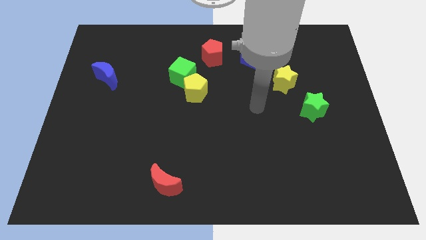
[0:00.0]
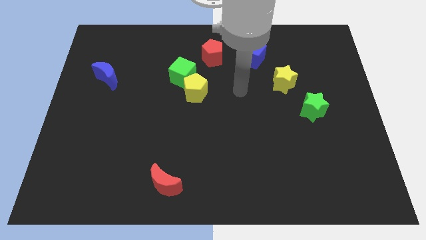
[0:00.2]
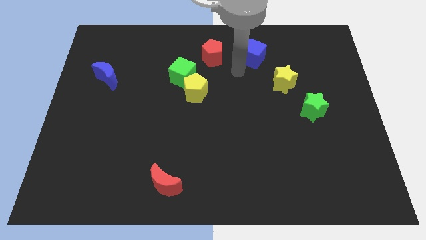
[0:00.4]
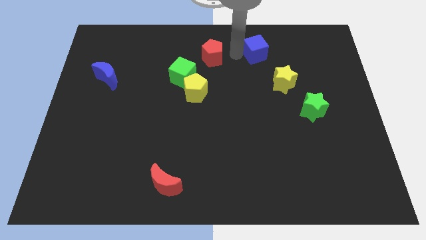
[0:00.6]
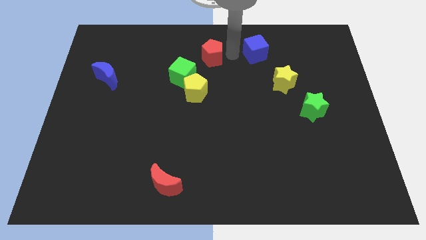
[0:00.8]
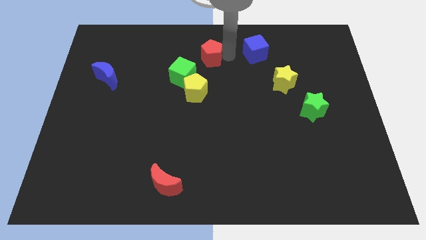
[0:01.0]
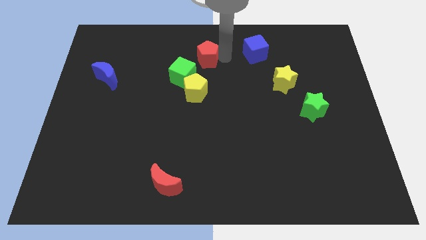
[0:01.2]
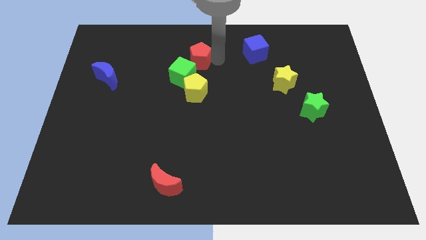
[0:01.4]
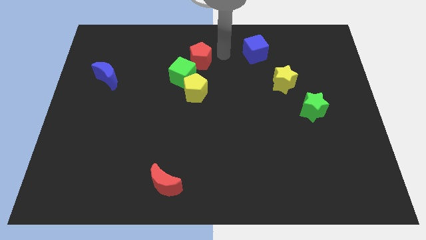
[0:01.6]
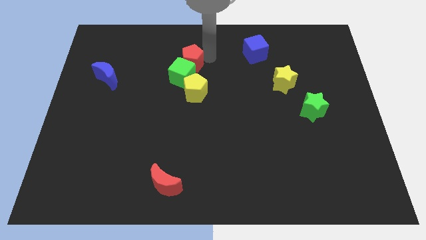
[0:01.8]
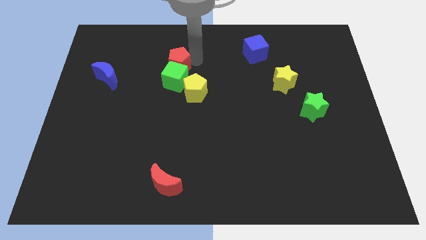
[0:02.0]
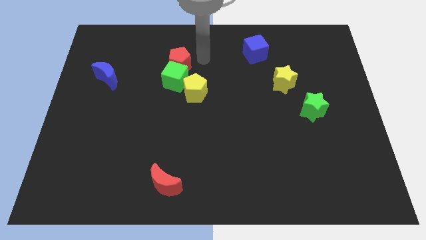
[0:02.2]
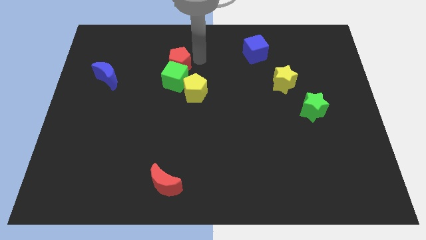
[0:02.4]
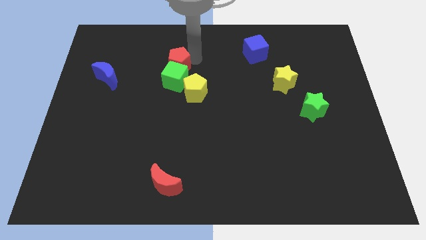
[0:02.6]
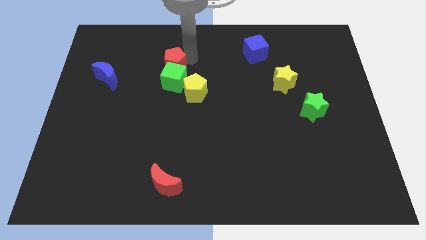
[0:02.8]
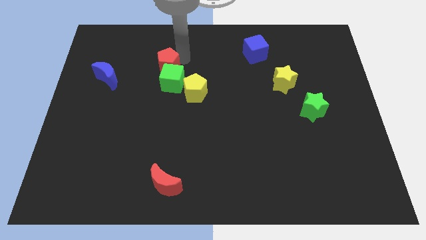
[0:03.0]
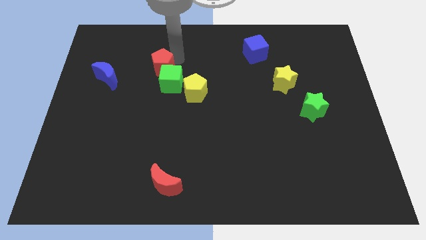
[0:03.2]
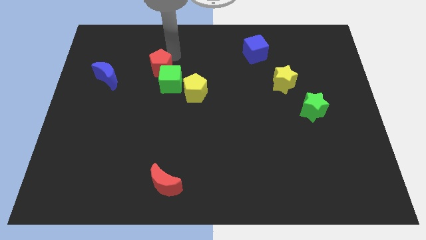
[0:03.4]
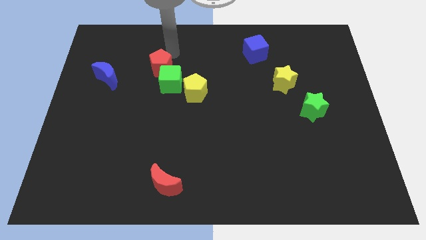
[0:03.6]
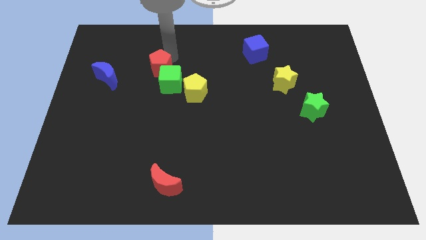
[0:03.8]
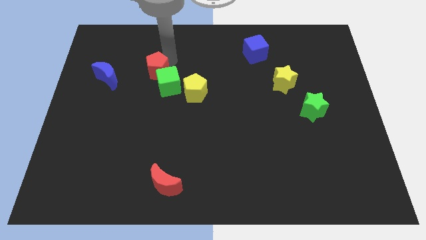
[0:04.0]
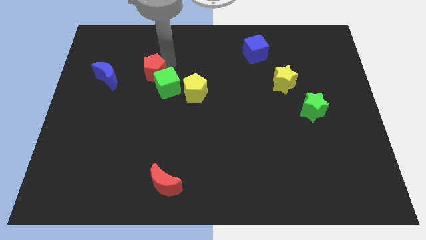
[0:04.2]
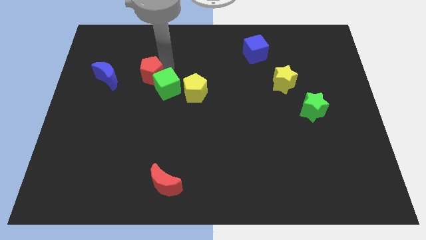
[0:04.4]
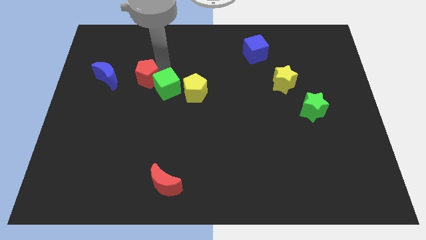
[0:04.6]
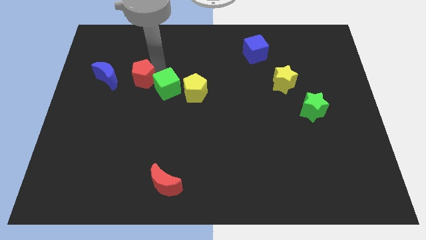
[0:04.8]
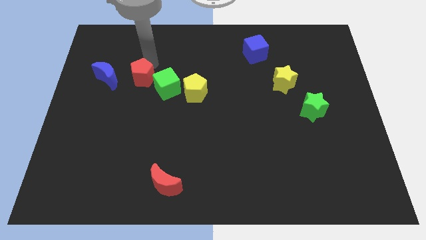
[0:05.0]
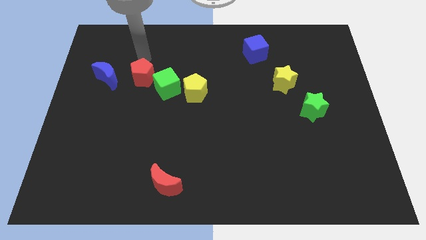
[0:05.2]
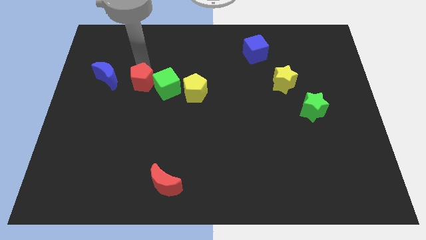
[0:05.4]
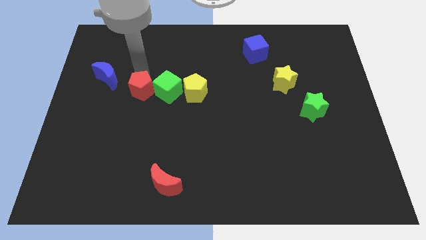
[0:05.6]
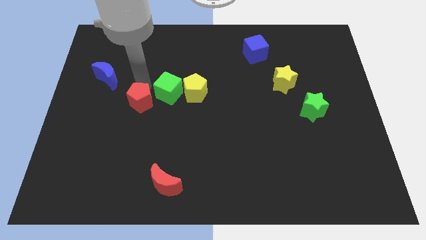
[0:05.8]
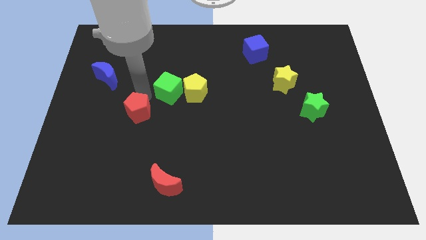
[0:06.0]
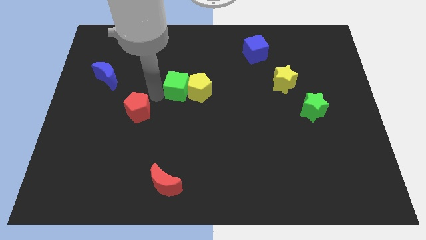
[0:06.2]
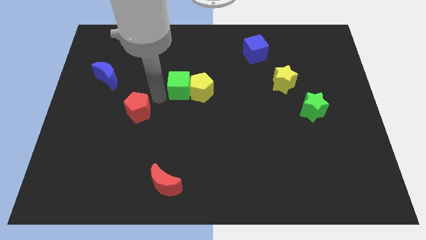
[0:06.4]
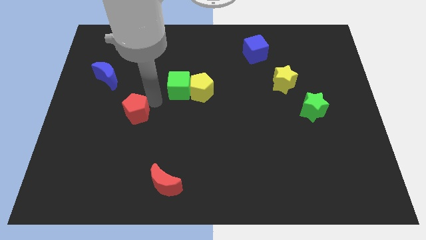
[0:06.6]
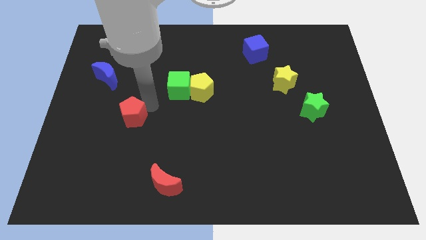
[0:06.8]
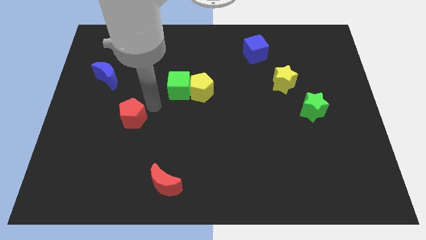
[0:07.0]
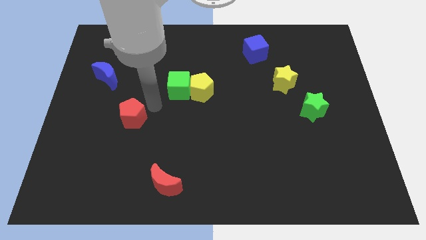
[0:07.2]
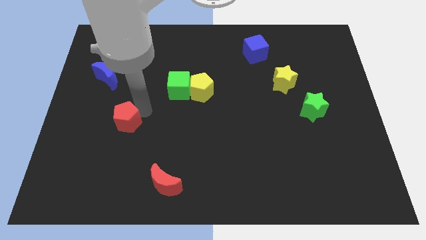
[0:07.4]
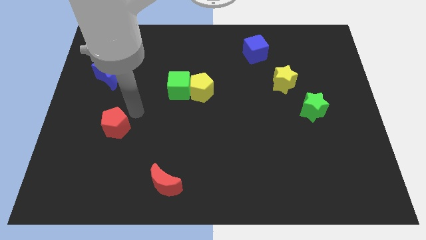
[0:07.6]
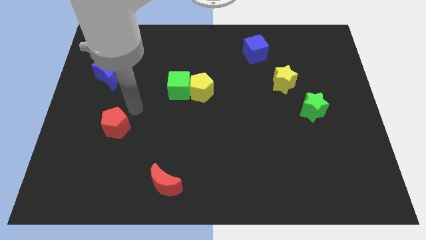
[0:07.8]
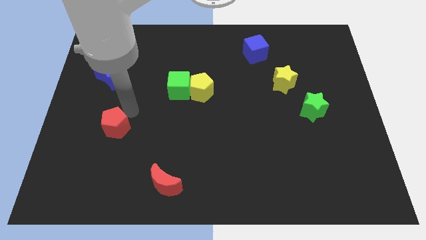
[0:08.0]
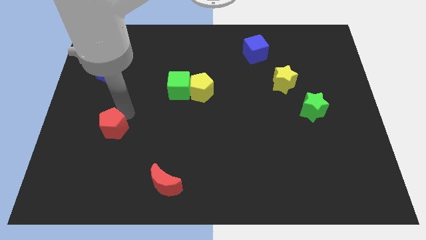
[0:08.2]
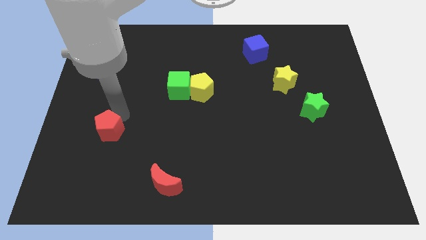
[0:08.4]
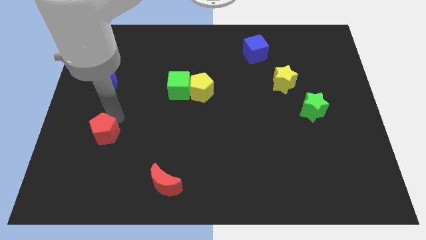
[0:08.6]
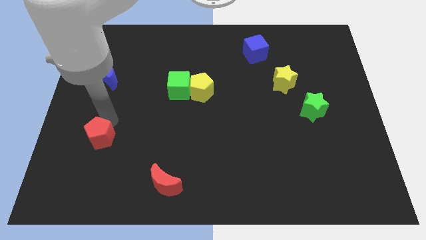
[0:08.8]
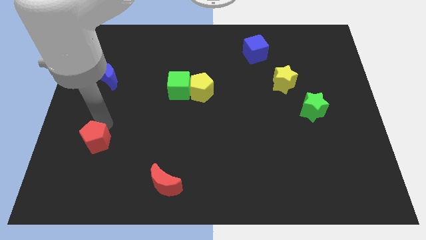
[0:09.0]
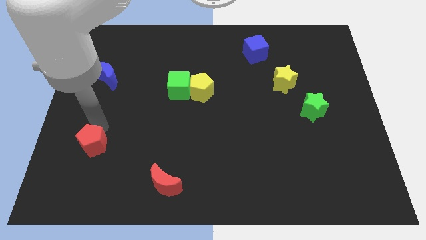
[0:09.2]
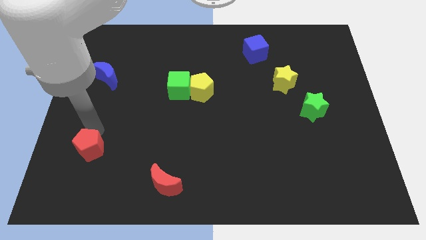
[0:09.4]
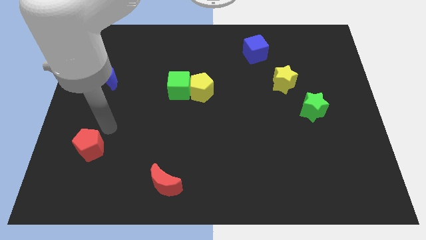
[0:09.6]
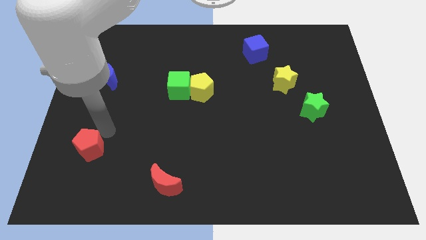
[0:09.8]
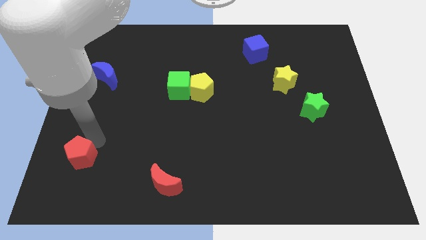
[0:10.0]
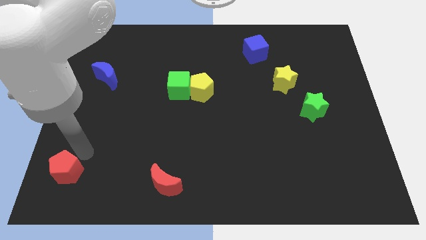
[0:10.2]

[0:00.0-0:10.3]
put the red pentagon to the bottom left of the board

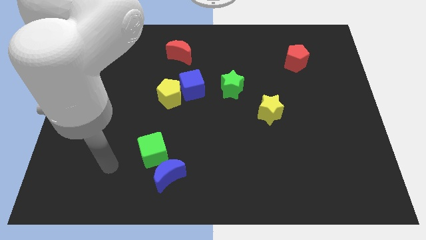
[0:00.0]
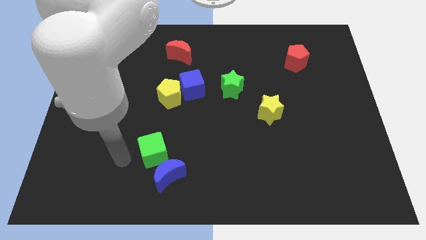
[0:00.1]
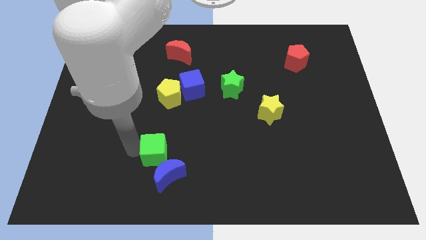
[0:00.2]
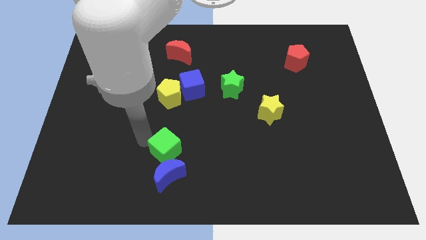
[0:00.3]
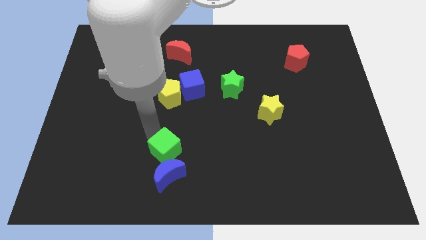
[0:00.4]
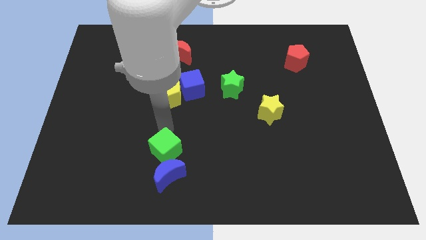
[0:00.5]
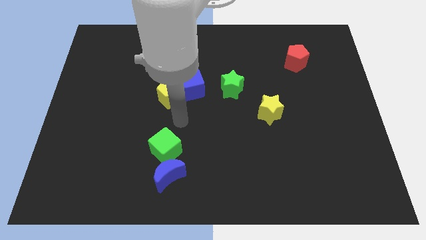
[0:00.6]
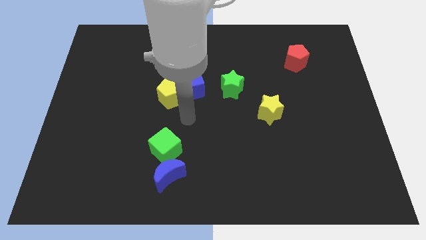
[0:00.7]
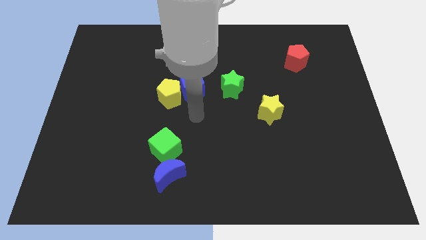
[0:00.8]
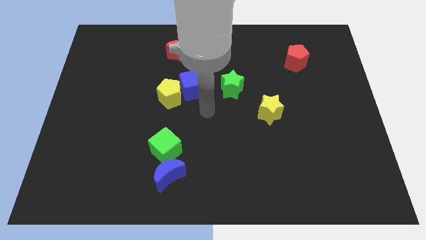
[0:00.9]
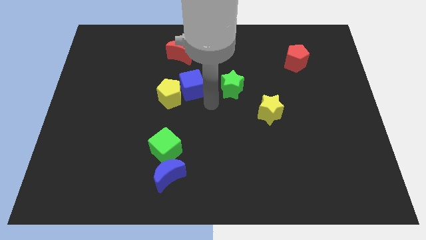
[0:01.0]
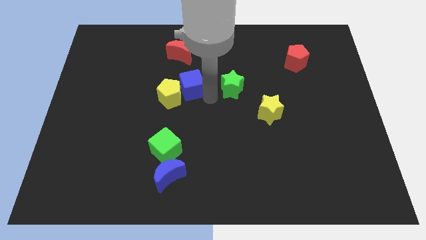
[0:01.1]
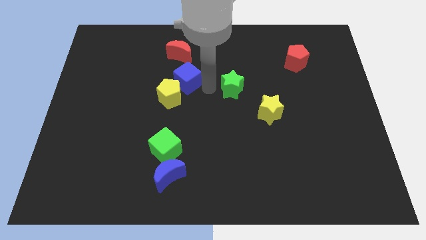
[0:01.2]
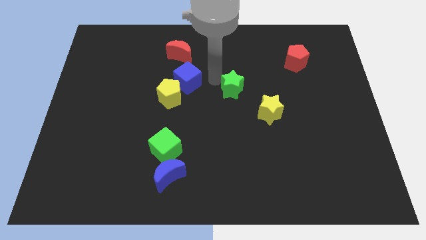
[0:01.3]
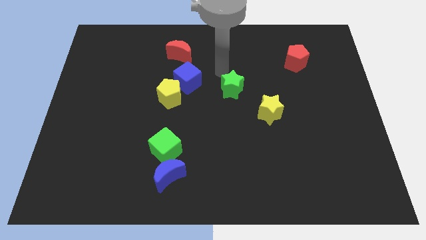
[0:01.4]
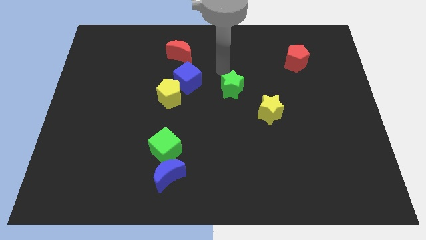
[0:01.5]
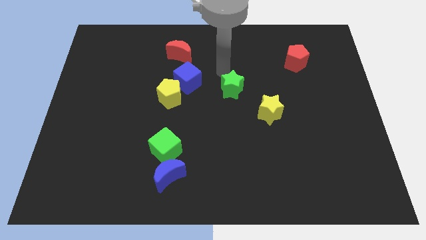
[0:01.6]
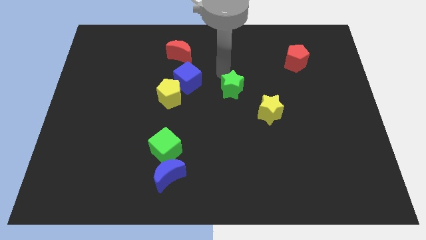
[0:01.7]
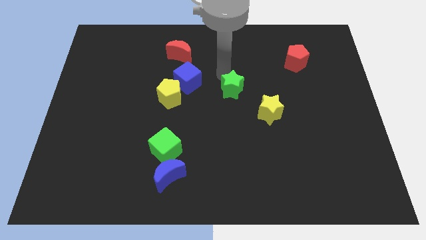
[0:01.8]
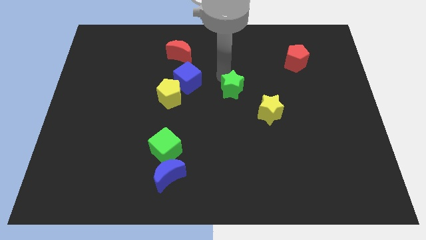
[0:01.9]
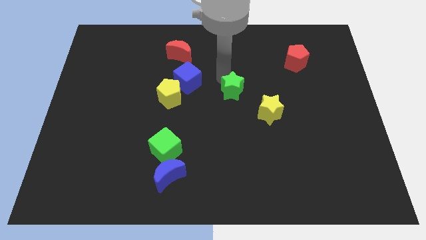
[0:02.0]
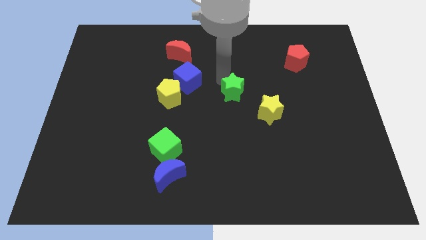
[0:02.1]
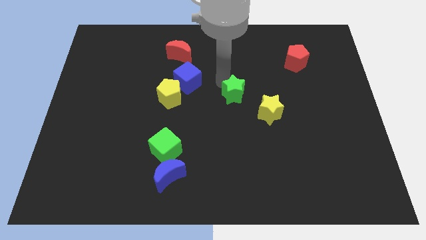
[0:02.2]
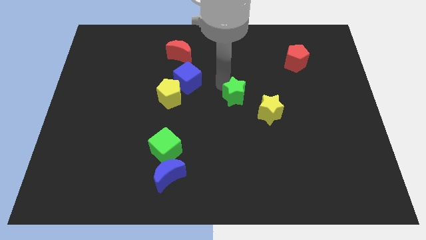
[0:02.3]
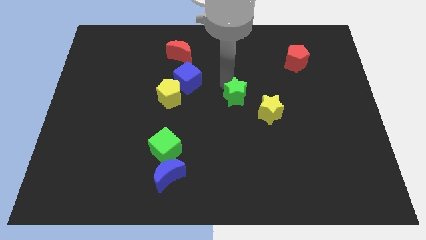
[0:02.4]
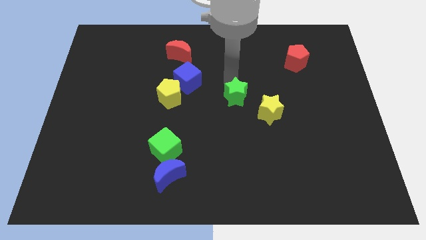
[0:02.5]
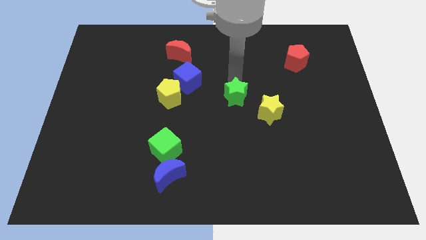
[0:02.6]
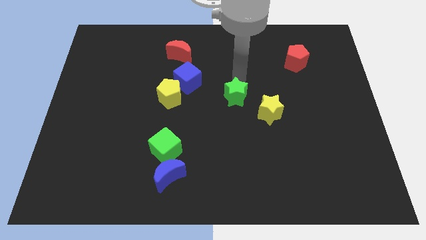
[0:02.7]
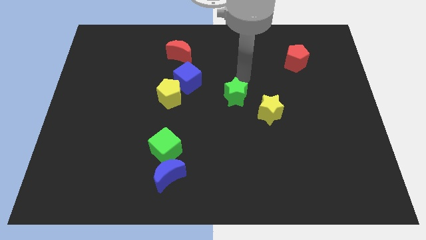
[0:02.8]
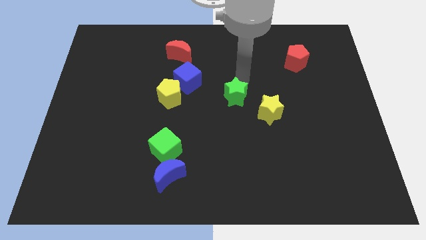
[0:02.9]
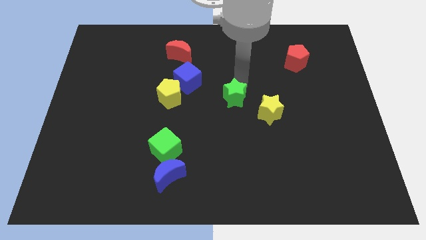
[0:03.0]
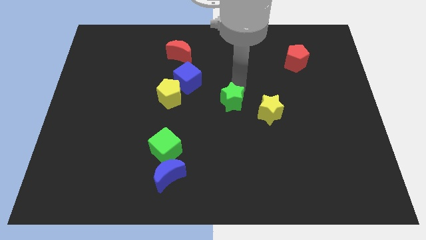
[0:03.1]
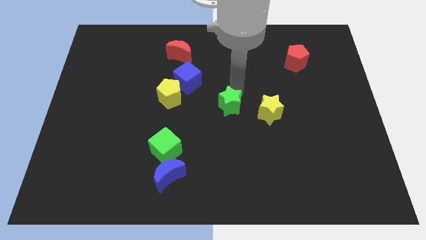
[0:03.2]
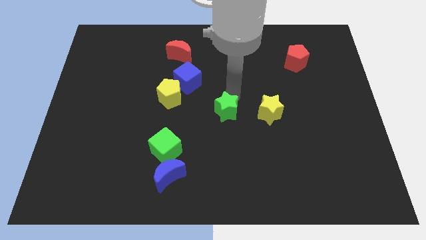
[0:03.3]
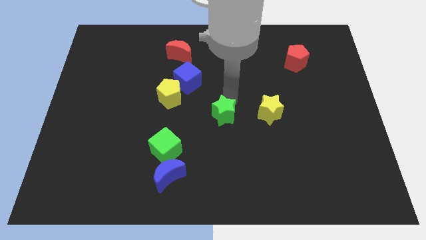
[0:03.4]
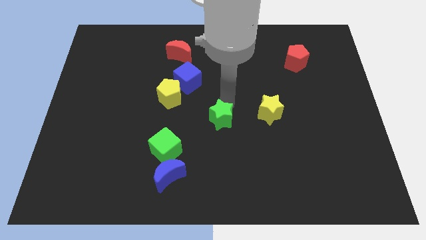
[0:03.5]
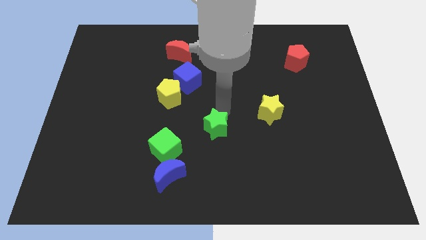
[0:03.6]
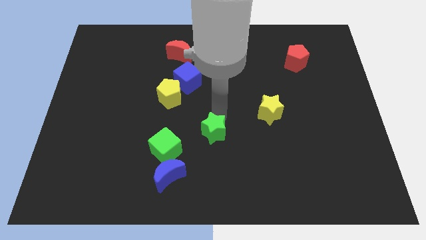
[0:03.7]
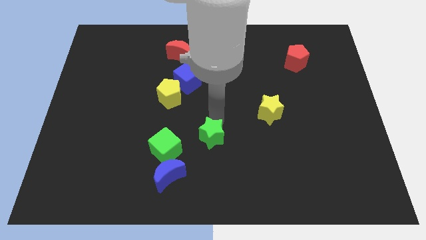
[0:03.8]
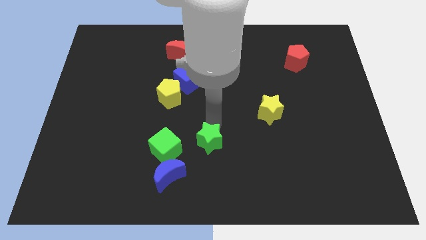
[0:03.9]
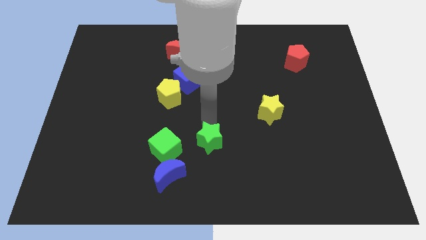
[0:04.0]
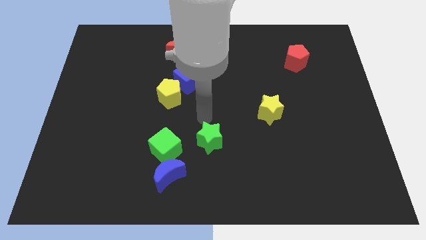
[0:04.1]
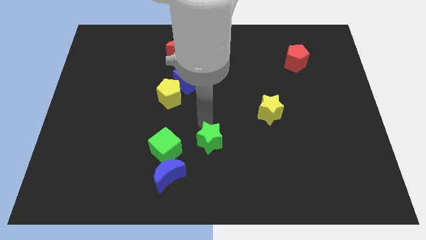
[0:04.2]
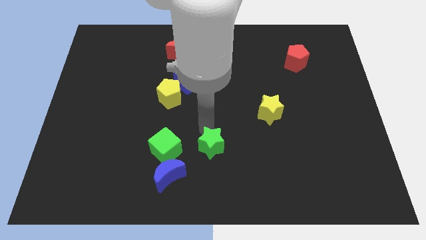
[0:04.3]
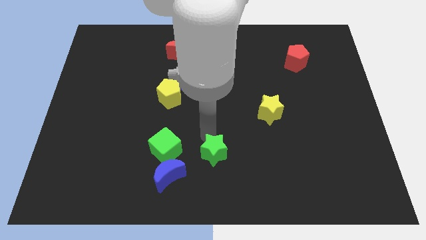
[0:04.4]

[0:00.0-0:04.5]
move the green star to the bottom
